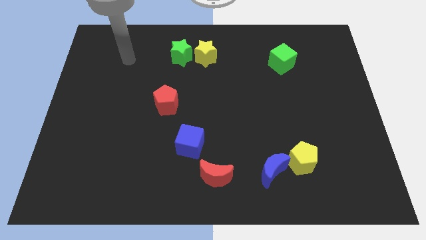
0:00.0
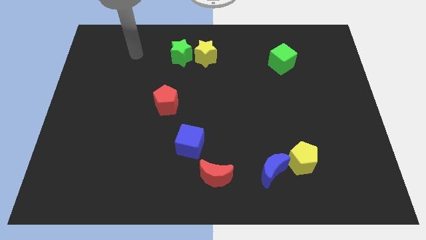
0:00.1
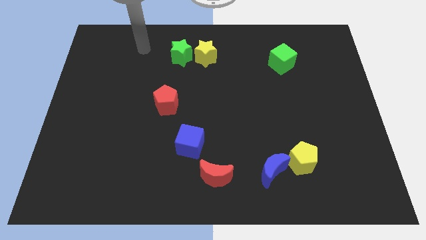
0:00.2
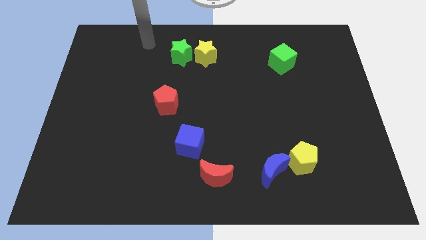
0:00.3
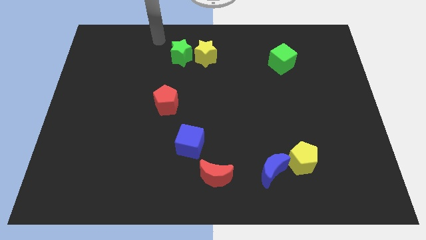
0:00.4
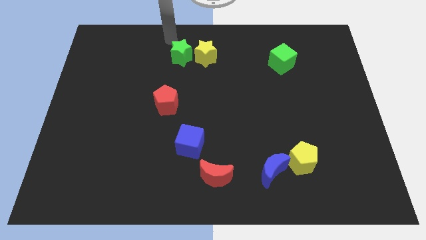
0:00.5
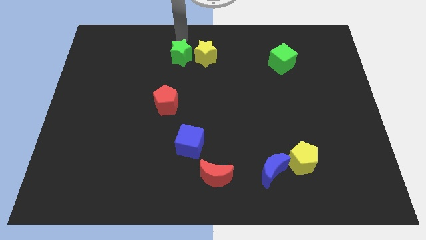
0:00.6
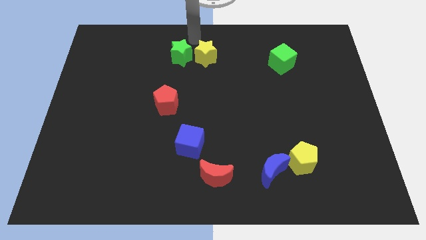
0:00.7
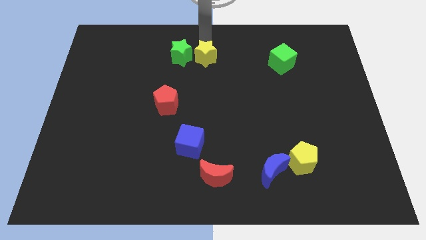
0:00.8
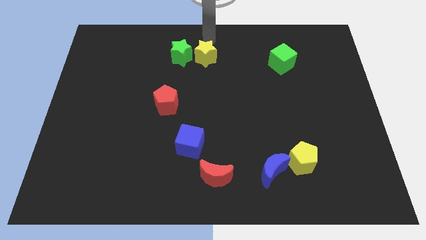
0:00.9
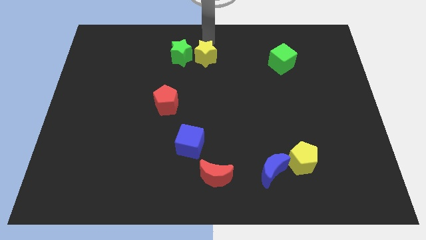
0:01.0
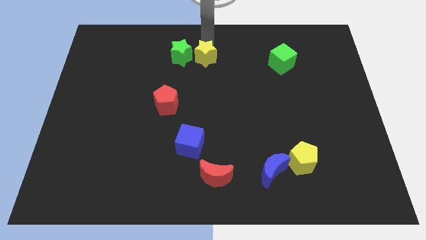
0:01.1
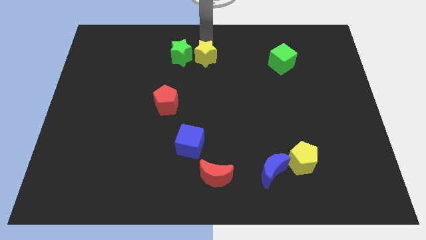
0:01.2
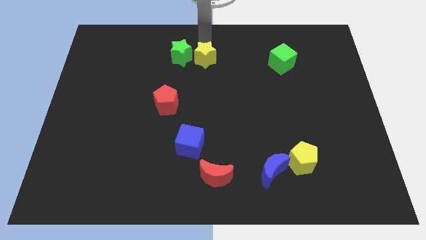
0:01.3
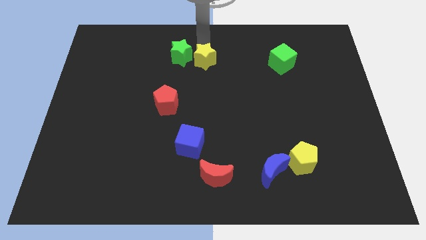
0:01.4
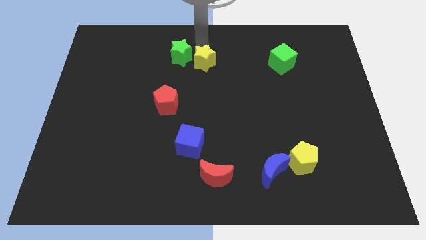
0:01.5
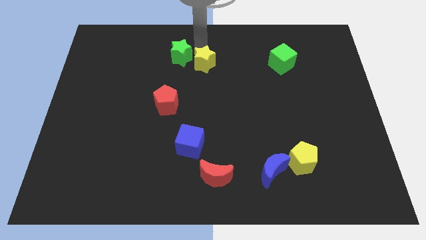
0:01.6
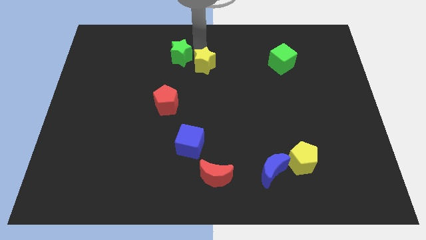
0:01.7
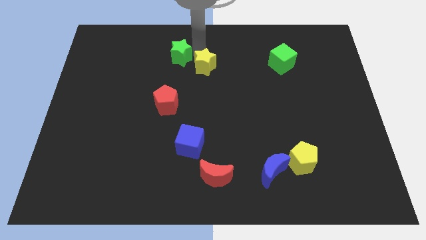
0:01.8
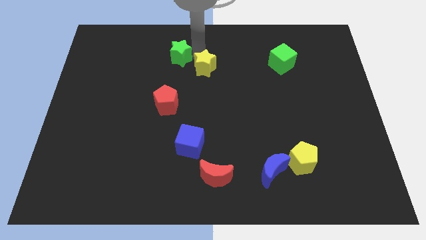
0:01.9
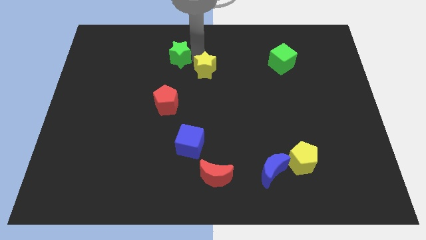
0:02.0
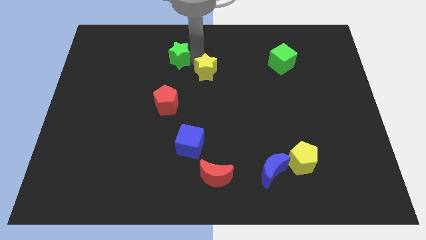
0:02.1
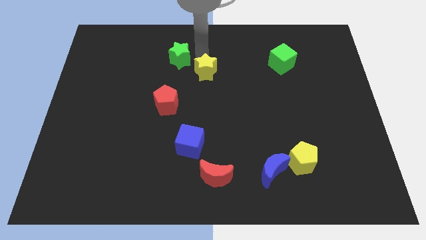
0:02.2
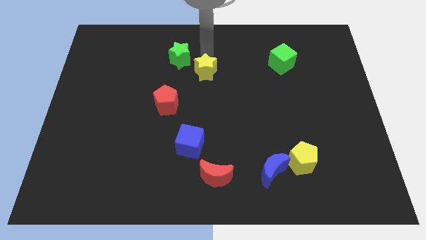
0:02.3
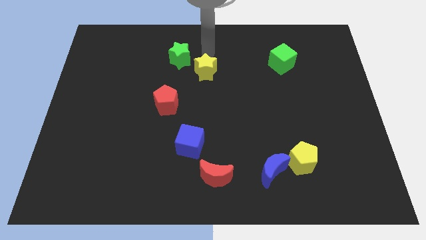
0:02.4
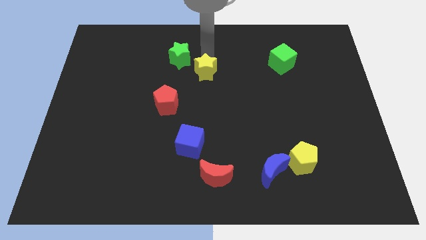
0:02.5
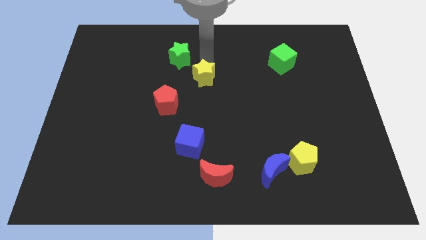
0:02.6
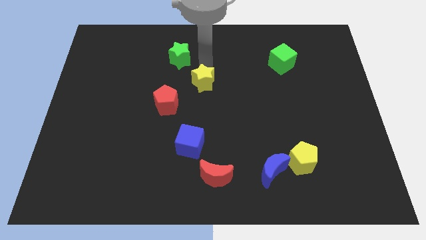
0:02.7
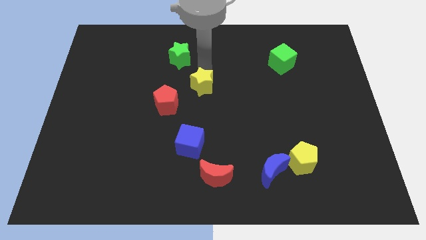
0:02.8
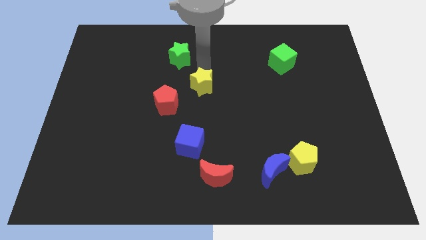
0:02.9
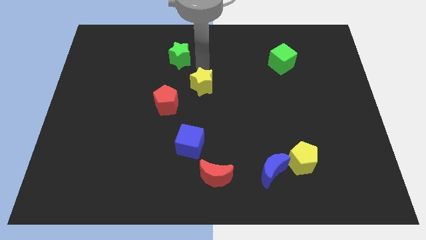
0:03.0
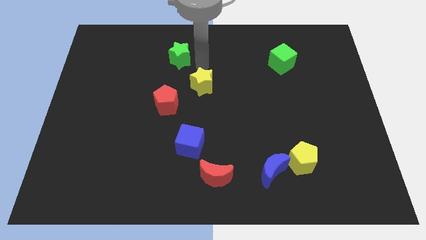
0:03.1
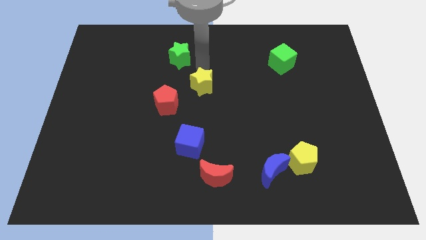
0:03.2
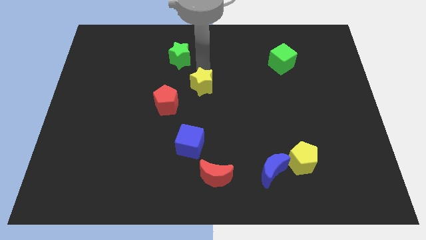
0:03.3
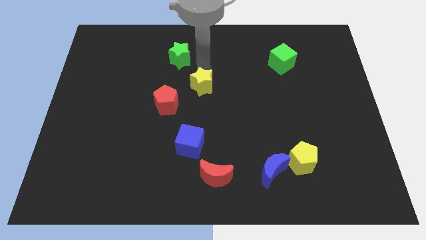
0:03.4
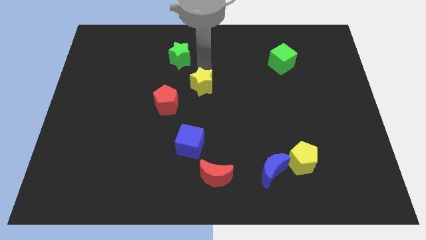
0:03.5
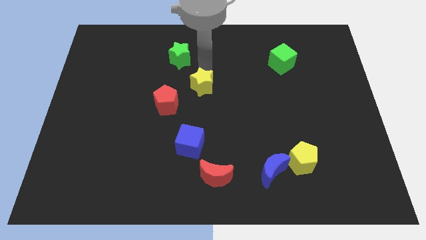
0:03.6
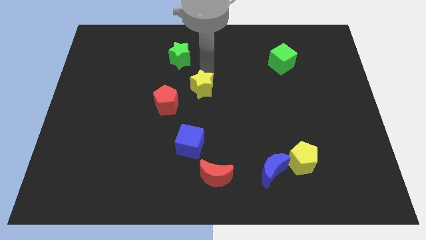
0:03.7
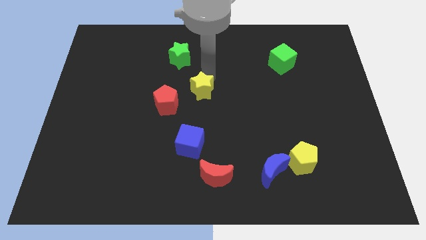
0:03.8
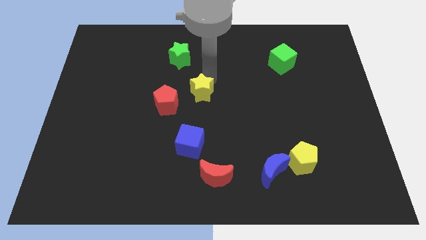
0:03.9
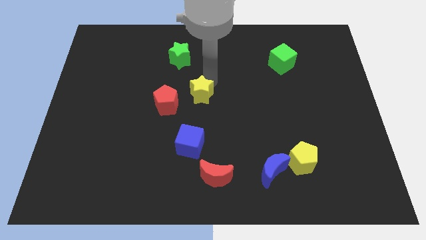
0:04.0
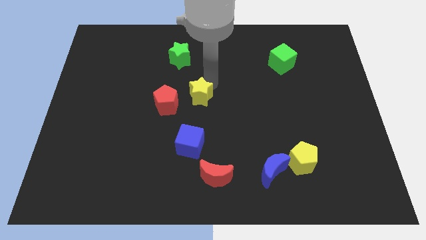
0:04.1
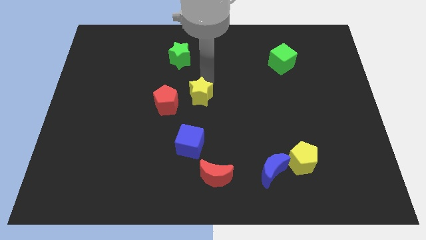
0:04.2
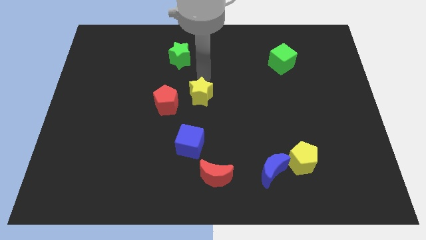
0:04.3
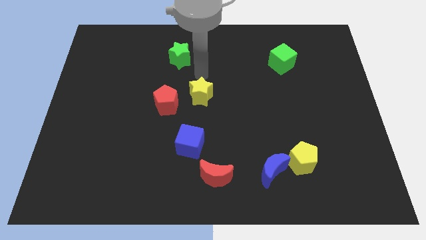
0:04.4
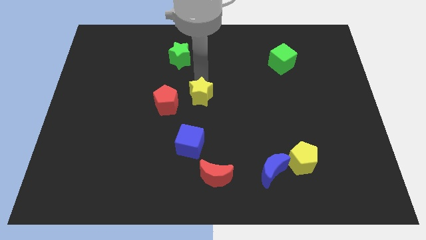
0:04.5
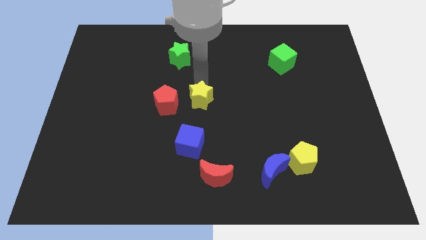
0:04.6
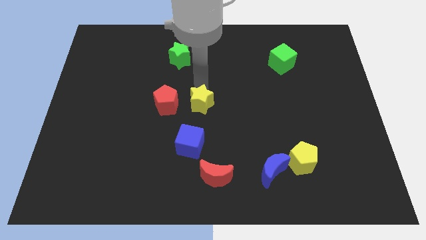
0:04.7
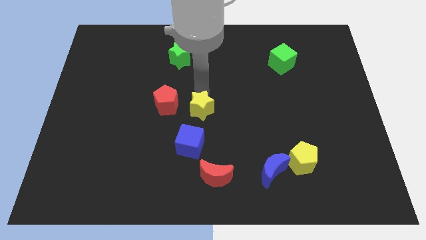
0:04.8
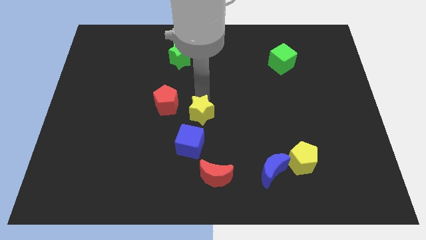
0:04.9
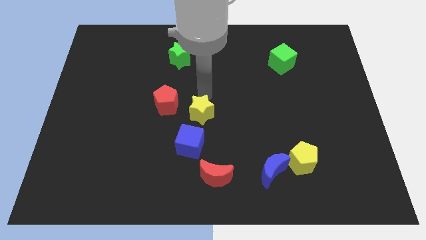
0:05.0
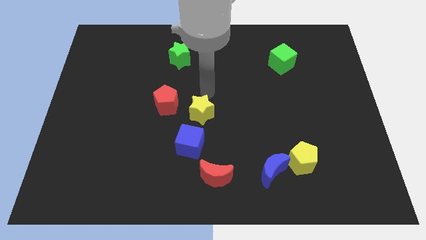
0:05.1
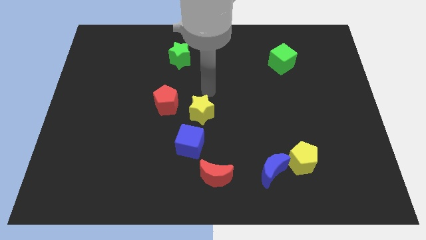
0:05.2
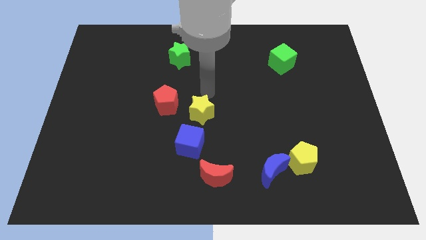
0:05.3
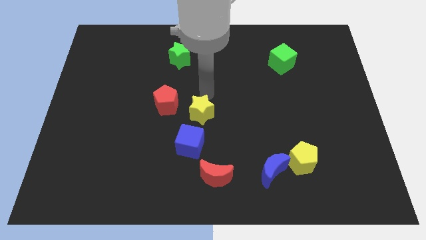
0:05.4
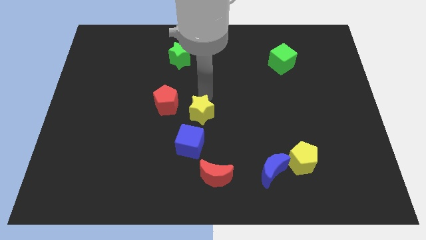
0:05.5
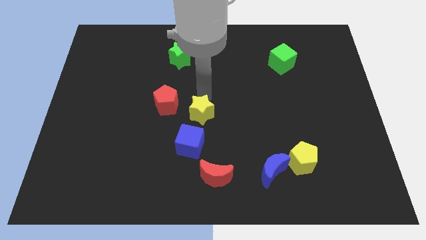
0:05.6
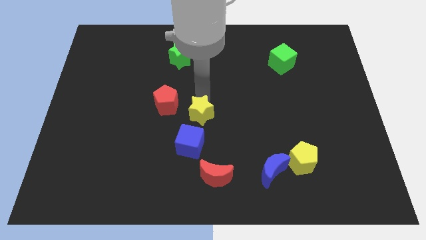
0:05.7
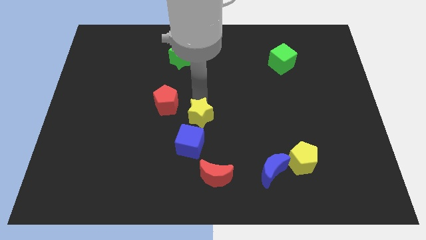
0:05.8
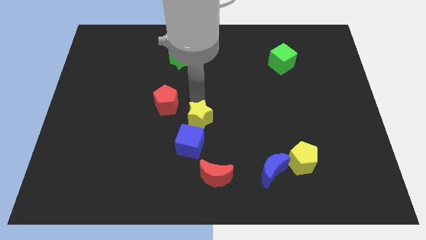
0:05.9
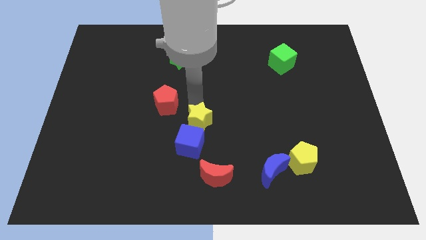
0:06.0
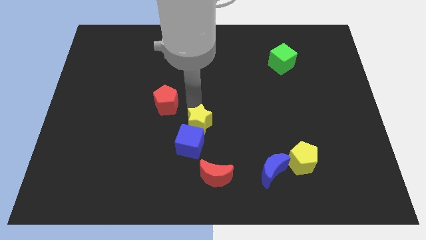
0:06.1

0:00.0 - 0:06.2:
push the yellow star to the blue cube

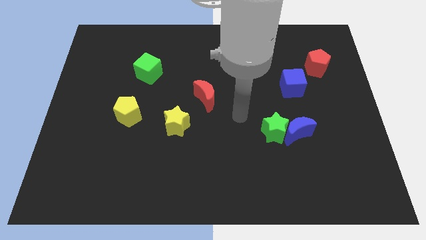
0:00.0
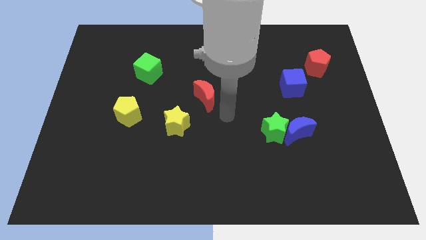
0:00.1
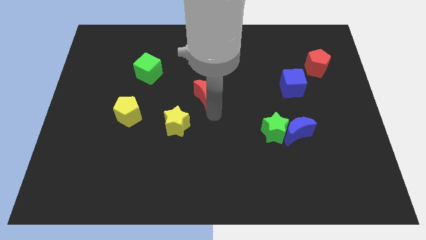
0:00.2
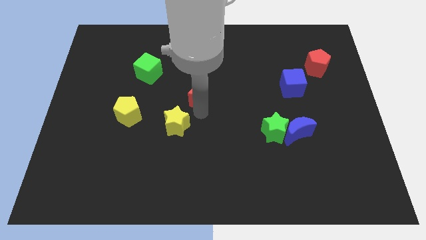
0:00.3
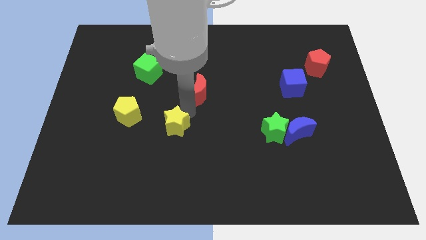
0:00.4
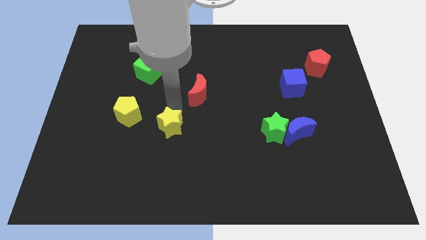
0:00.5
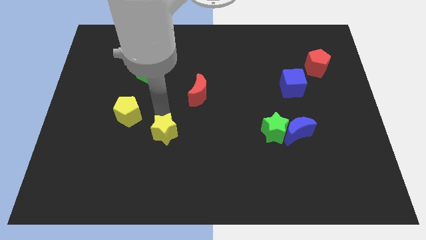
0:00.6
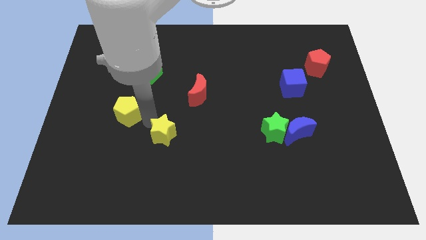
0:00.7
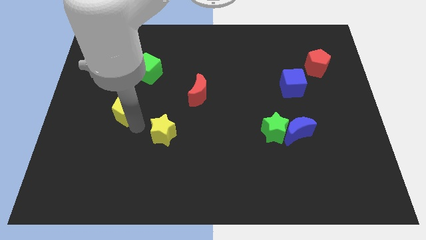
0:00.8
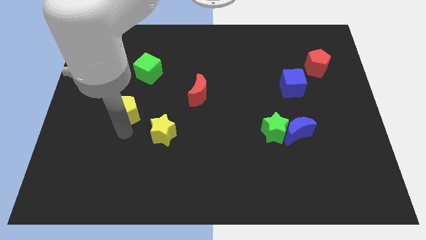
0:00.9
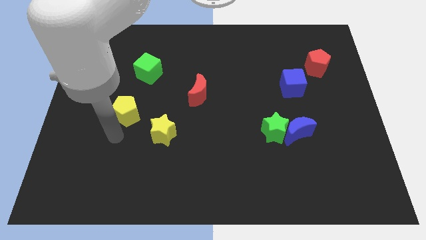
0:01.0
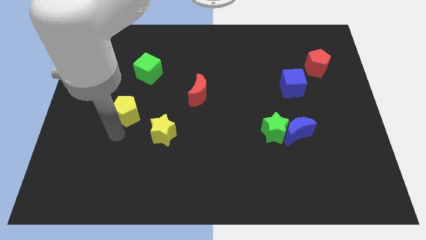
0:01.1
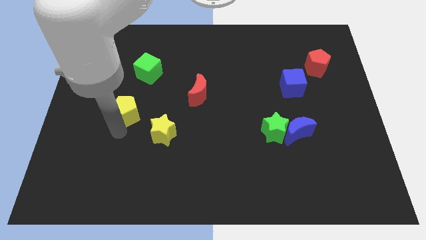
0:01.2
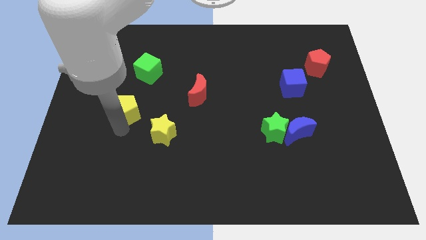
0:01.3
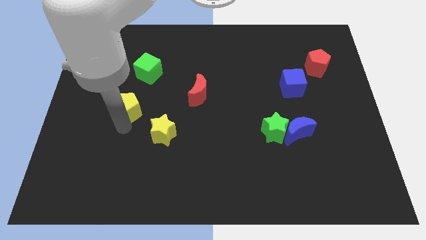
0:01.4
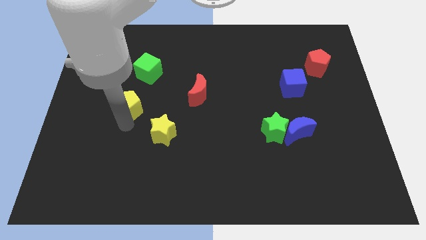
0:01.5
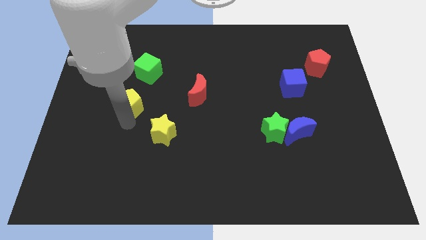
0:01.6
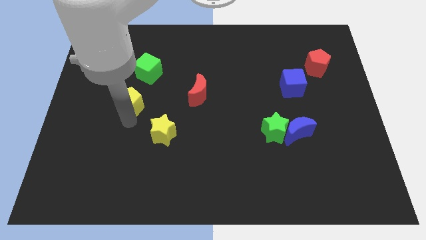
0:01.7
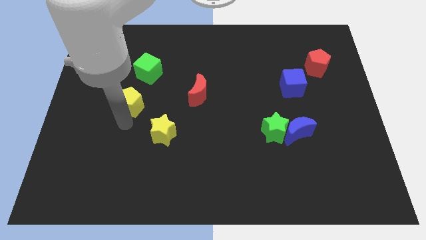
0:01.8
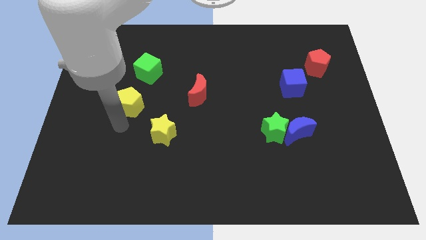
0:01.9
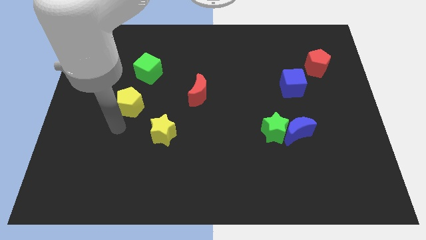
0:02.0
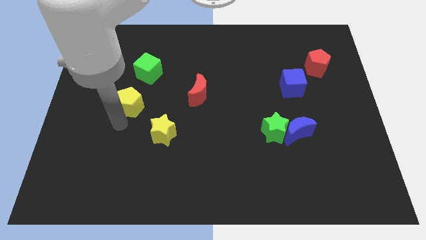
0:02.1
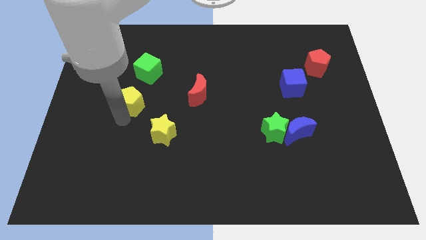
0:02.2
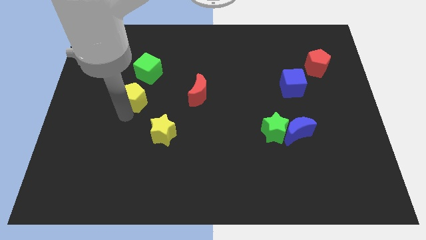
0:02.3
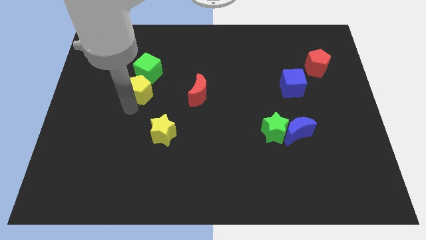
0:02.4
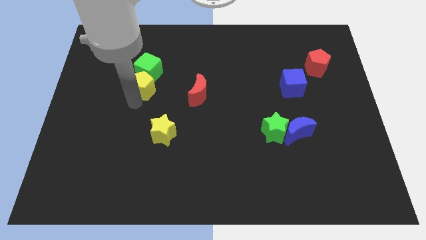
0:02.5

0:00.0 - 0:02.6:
push the yellow pentagon close to the green cube
